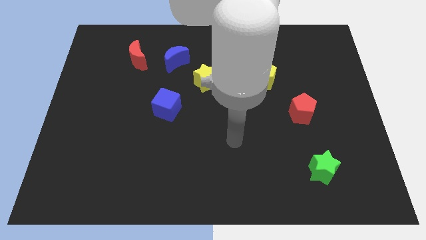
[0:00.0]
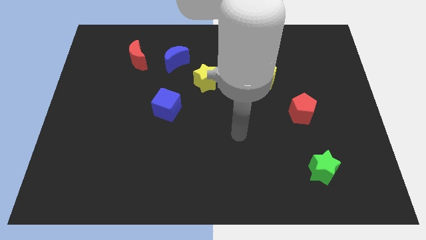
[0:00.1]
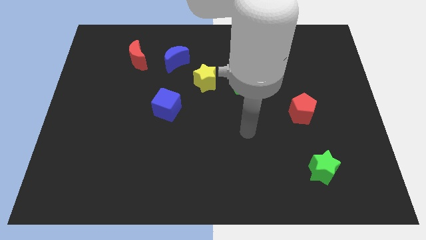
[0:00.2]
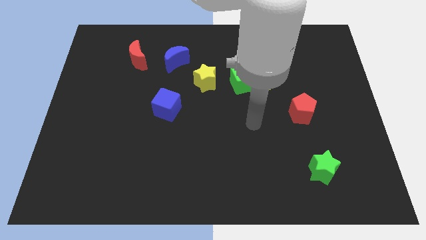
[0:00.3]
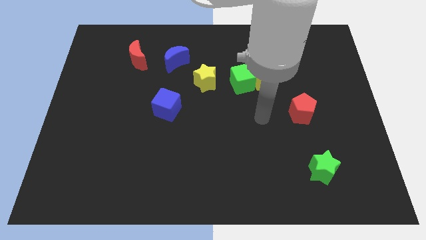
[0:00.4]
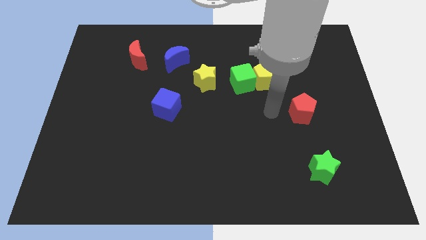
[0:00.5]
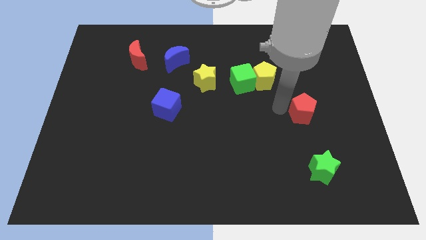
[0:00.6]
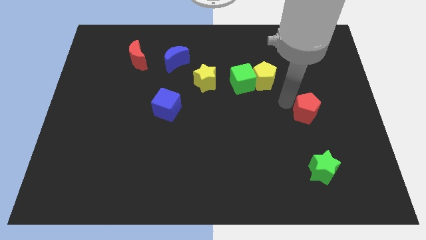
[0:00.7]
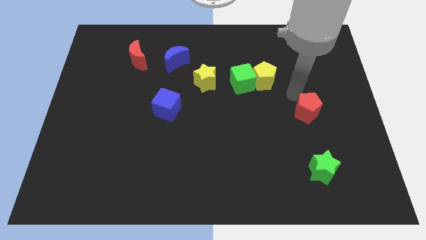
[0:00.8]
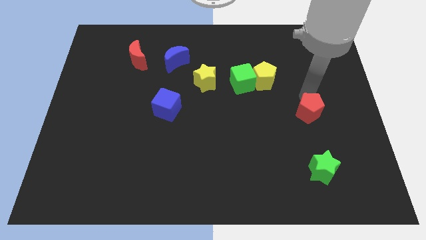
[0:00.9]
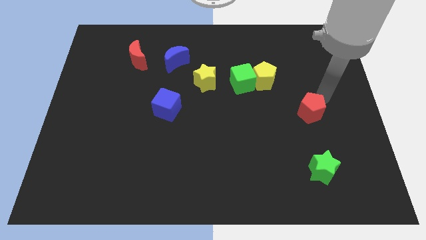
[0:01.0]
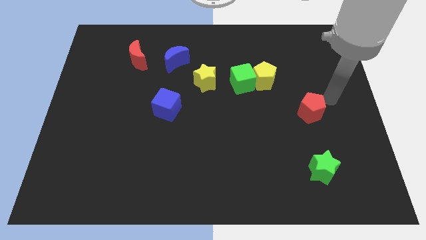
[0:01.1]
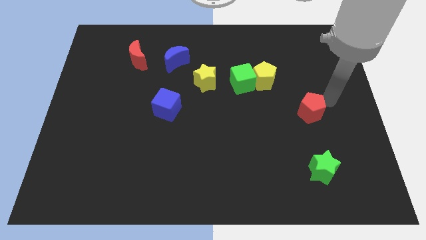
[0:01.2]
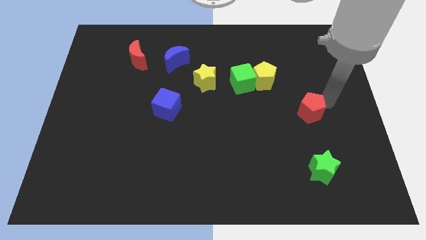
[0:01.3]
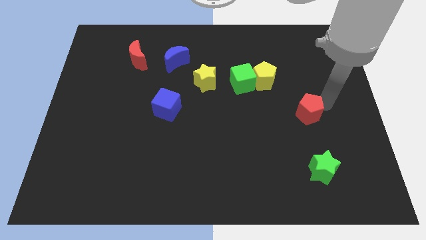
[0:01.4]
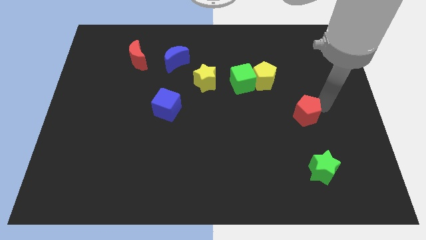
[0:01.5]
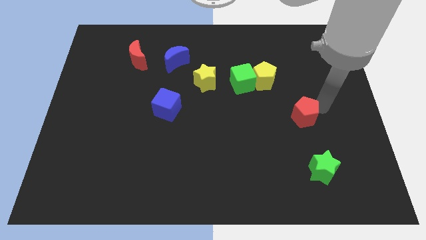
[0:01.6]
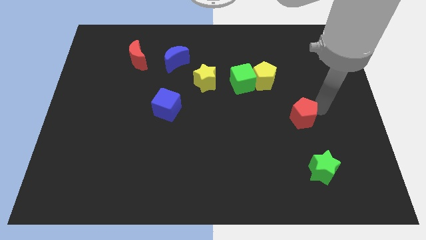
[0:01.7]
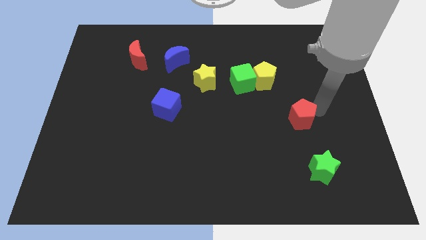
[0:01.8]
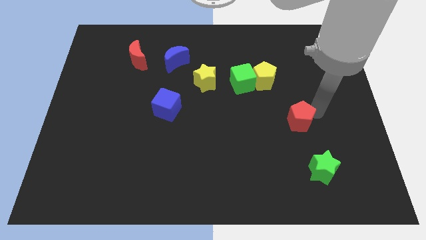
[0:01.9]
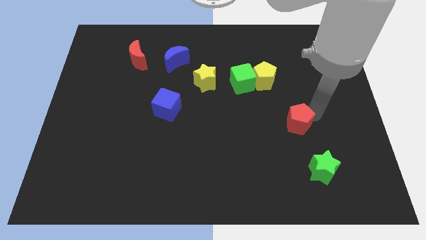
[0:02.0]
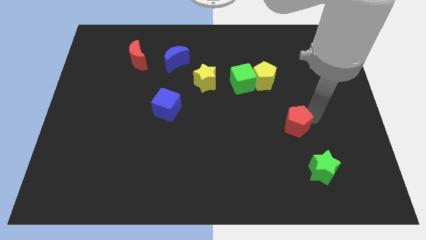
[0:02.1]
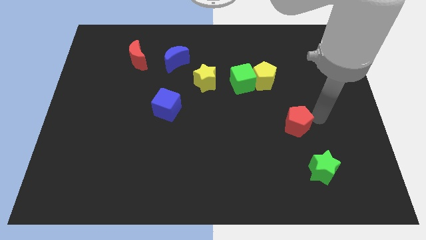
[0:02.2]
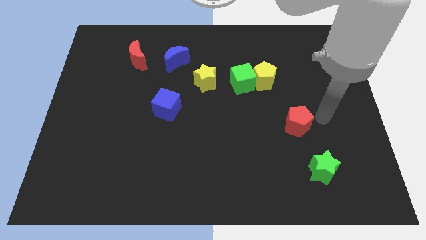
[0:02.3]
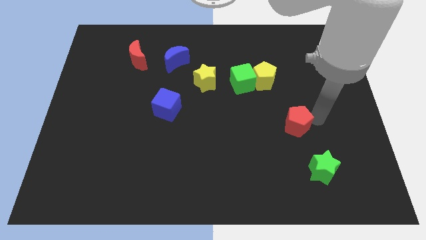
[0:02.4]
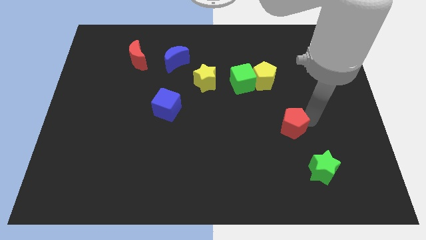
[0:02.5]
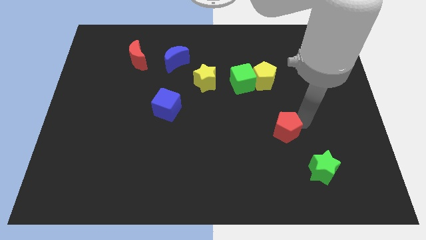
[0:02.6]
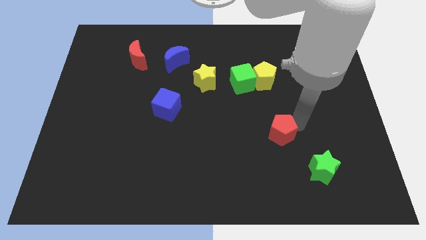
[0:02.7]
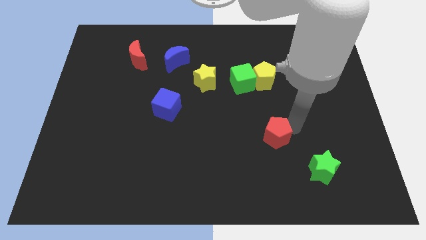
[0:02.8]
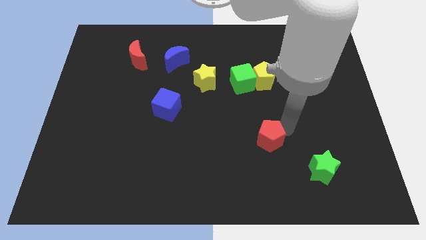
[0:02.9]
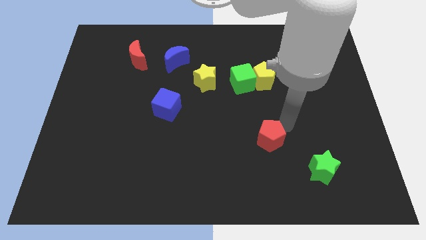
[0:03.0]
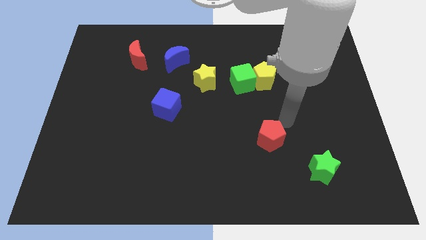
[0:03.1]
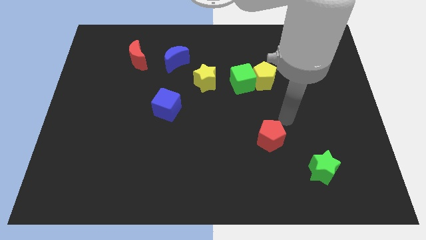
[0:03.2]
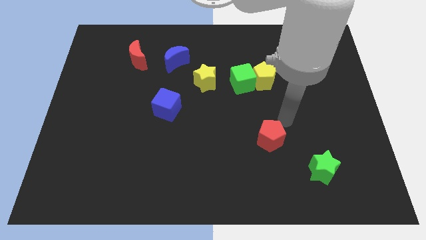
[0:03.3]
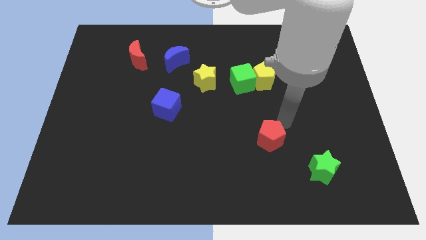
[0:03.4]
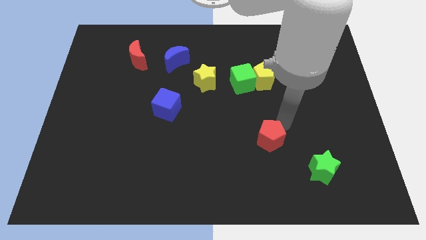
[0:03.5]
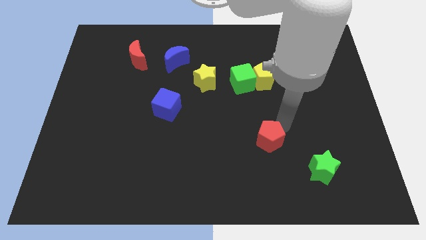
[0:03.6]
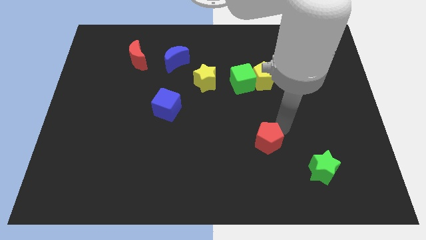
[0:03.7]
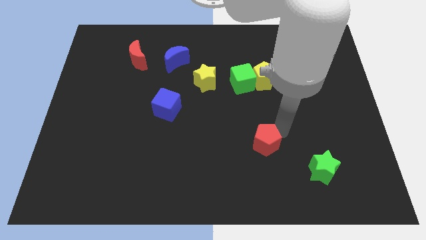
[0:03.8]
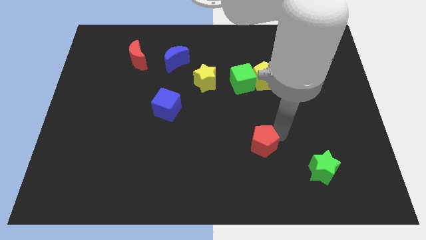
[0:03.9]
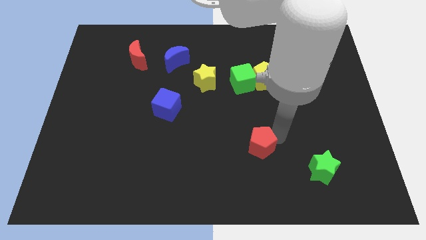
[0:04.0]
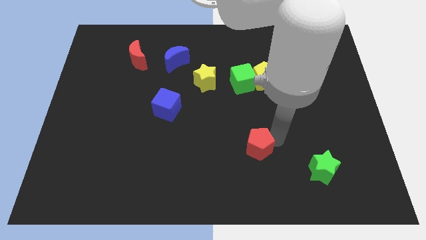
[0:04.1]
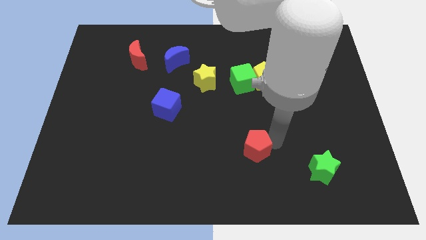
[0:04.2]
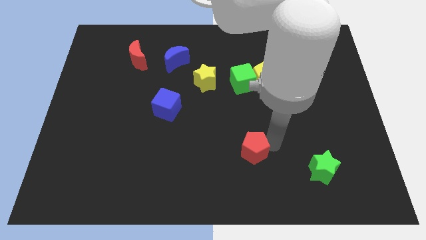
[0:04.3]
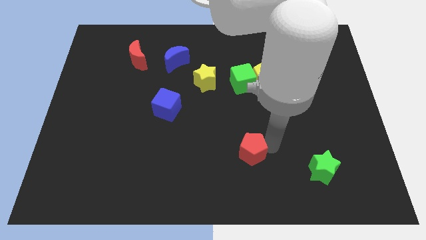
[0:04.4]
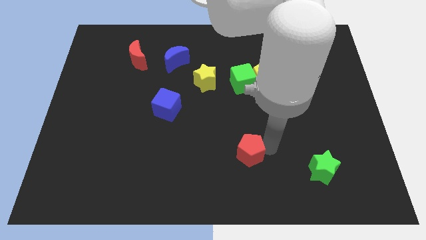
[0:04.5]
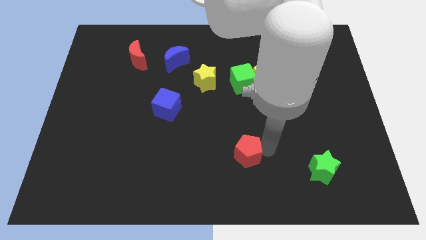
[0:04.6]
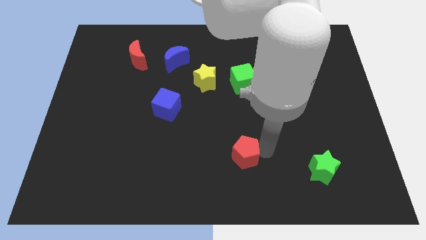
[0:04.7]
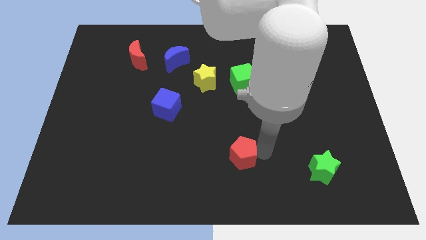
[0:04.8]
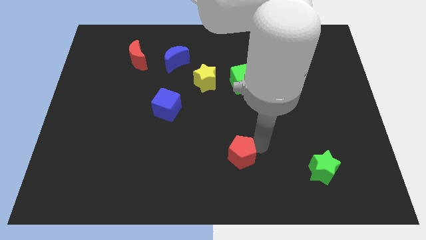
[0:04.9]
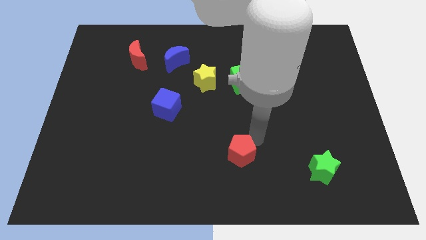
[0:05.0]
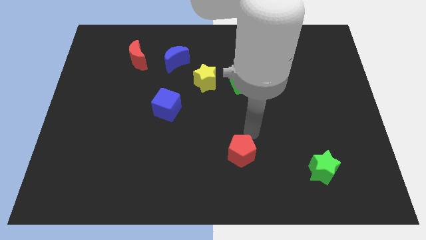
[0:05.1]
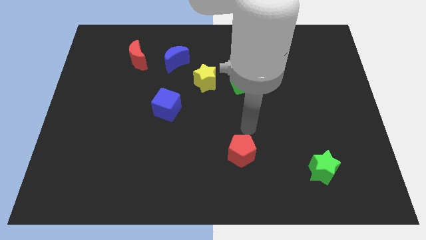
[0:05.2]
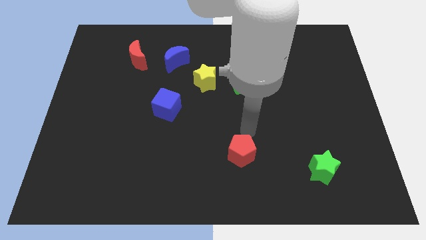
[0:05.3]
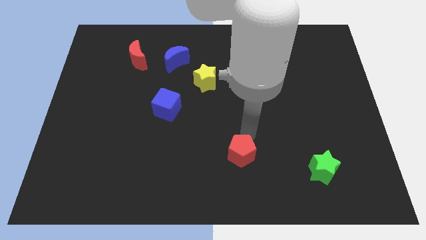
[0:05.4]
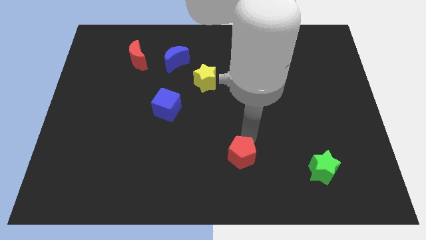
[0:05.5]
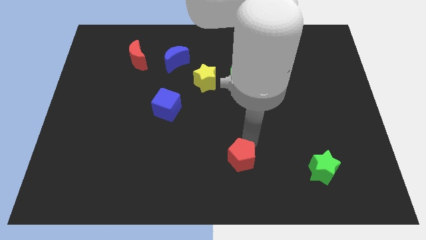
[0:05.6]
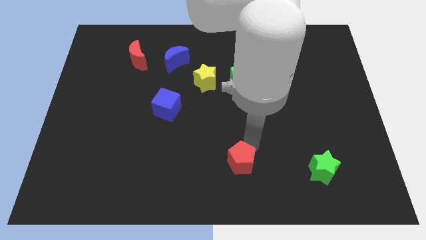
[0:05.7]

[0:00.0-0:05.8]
push the red pentagon to the bottom
